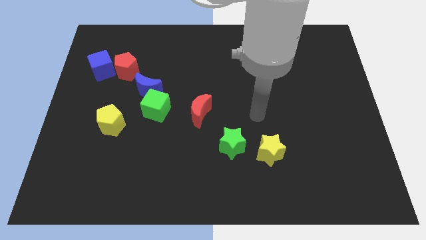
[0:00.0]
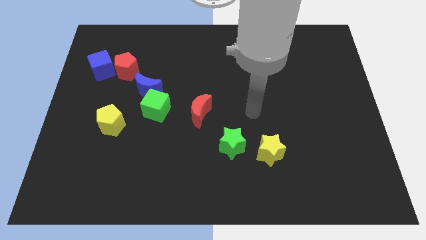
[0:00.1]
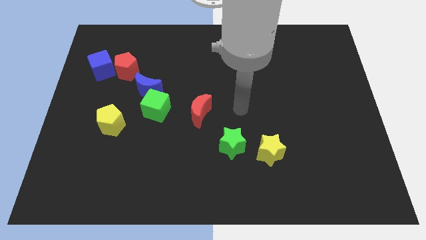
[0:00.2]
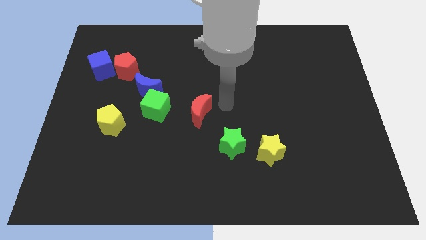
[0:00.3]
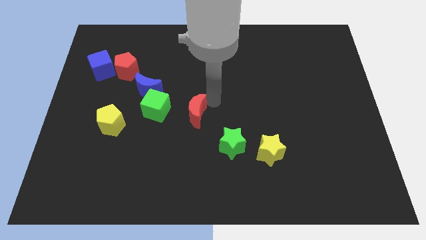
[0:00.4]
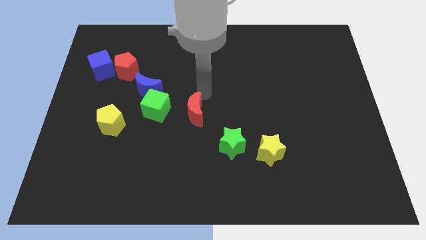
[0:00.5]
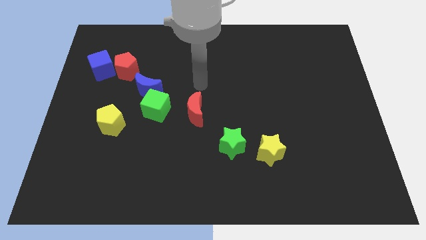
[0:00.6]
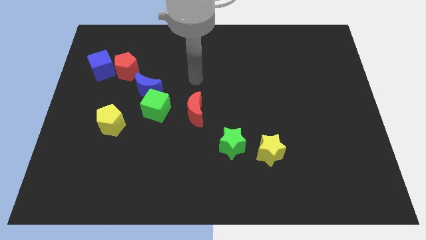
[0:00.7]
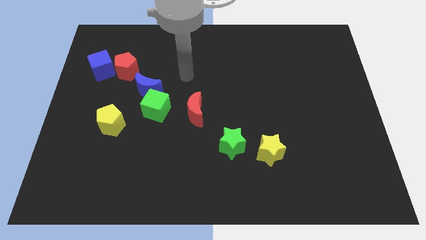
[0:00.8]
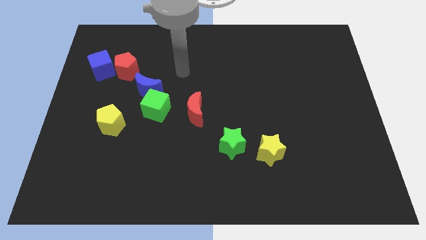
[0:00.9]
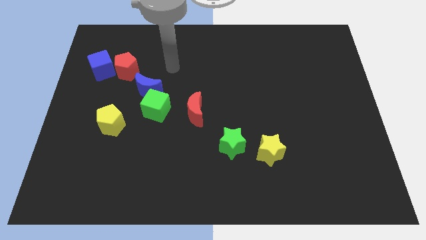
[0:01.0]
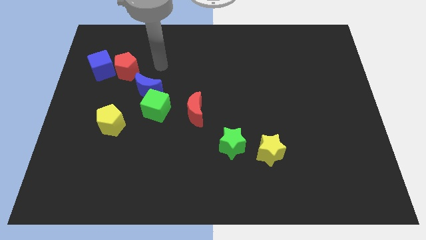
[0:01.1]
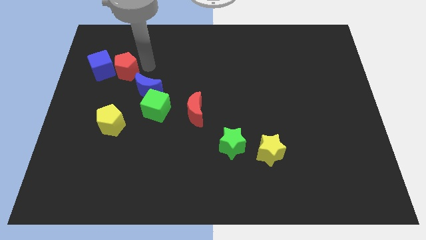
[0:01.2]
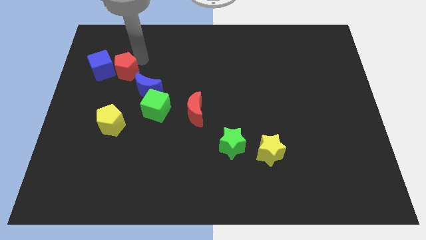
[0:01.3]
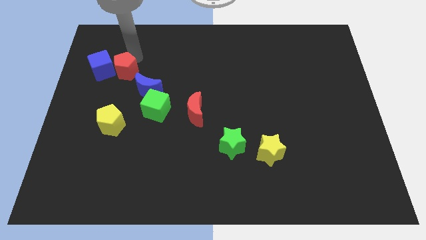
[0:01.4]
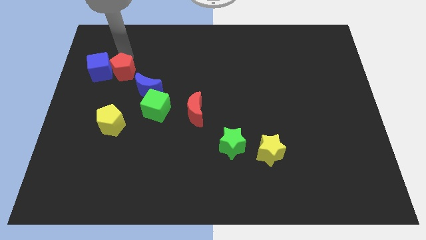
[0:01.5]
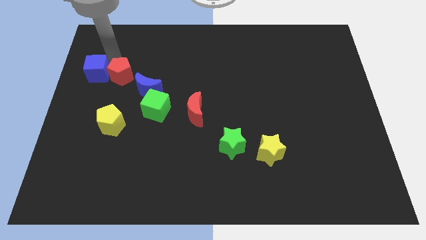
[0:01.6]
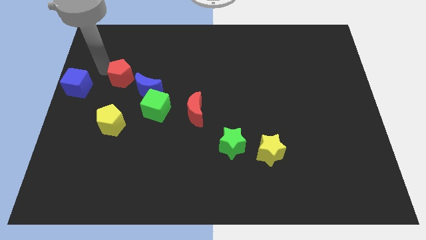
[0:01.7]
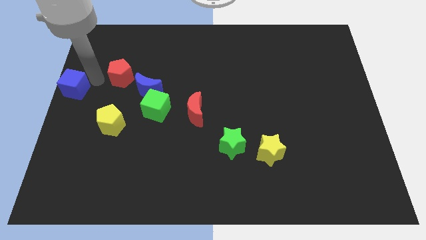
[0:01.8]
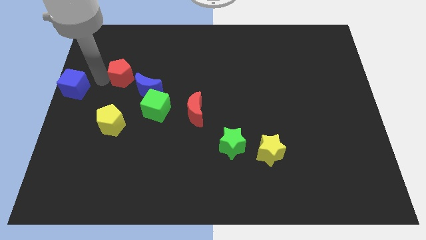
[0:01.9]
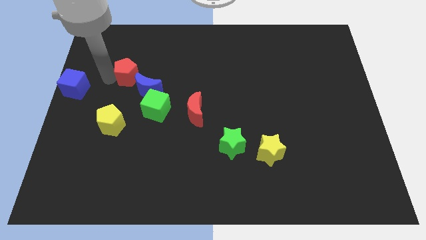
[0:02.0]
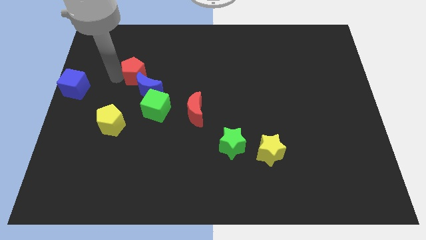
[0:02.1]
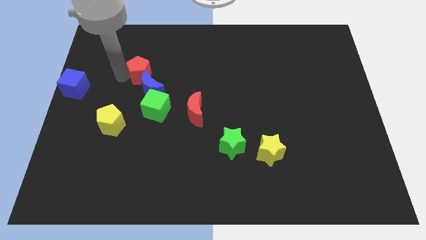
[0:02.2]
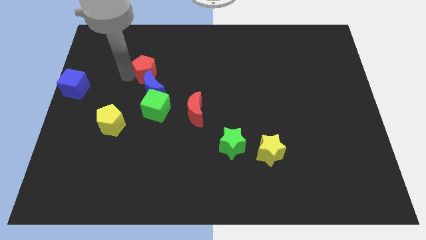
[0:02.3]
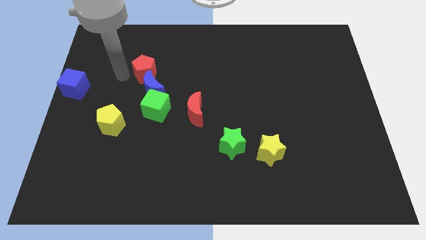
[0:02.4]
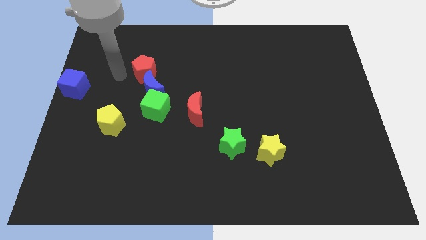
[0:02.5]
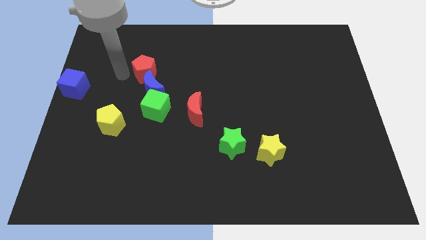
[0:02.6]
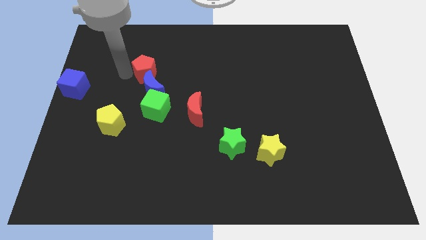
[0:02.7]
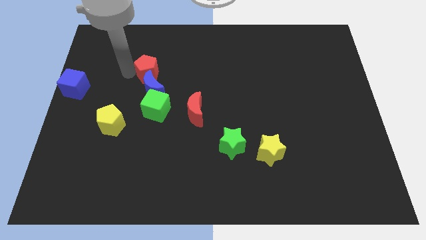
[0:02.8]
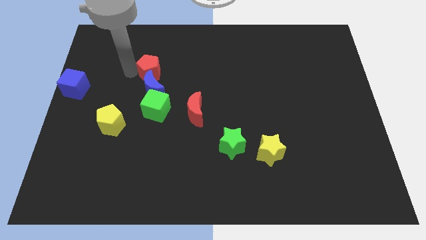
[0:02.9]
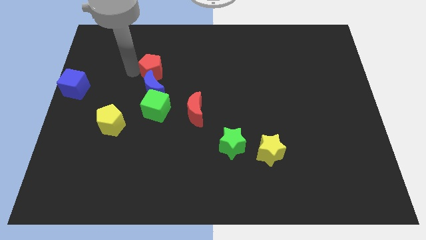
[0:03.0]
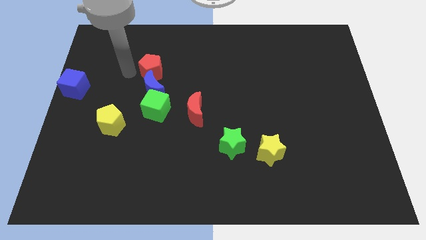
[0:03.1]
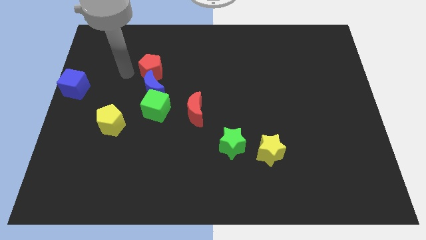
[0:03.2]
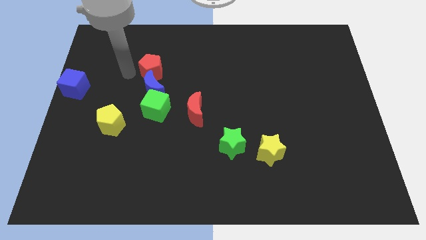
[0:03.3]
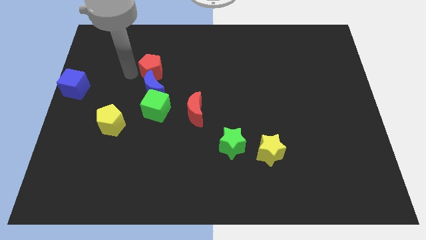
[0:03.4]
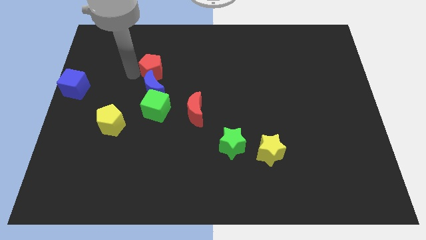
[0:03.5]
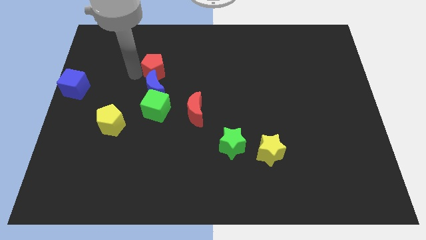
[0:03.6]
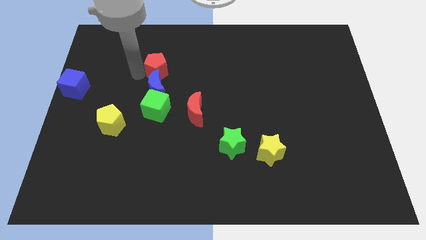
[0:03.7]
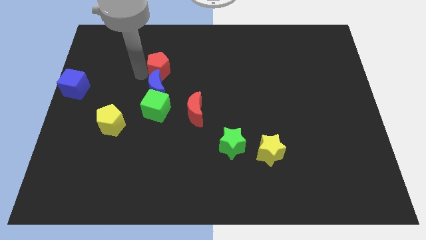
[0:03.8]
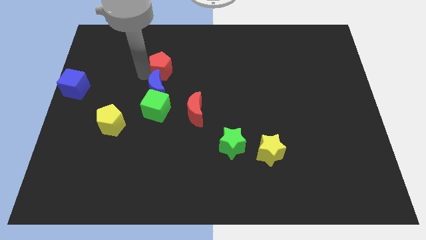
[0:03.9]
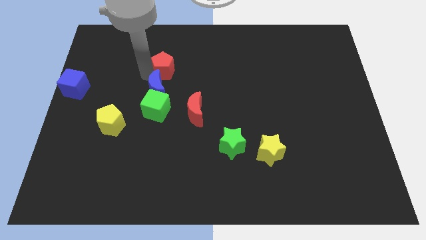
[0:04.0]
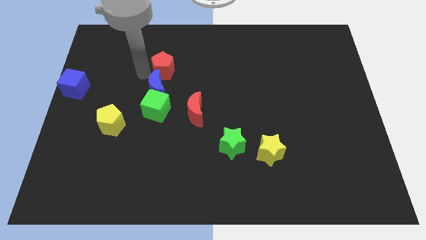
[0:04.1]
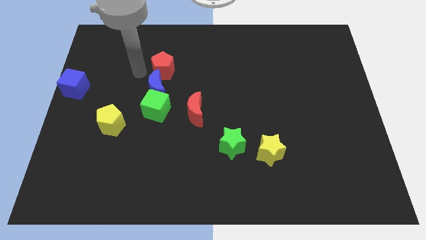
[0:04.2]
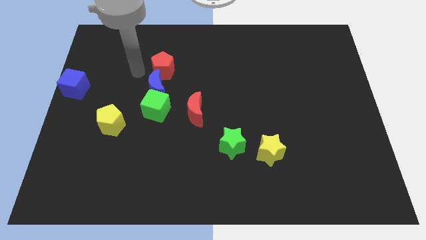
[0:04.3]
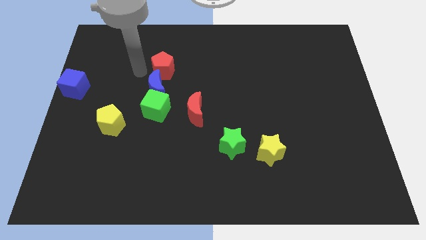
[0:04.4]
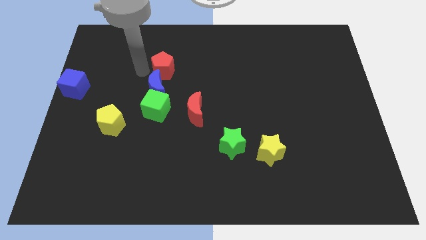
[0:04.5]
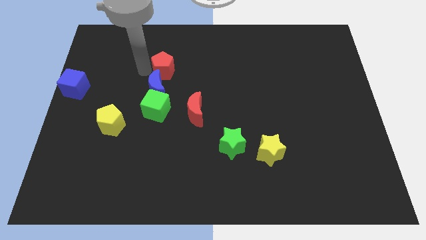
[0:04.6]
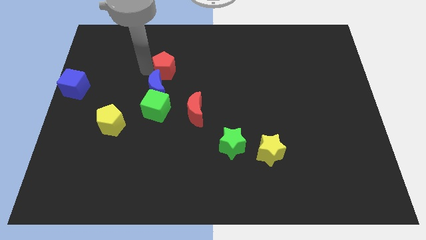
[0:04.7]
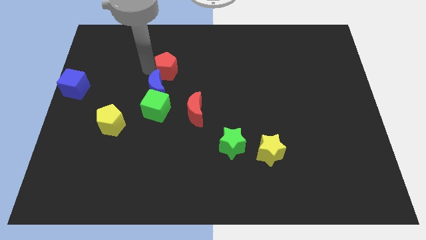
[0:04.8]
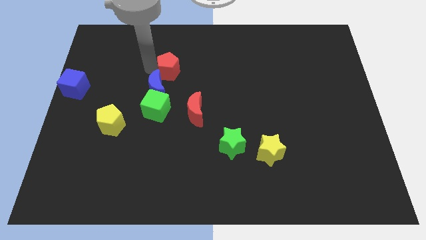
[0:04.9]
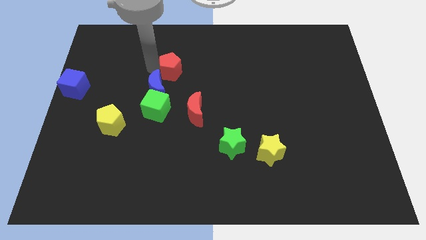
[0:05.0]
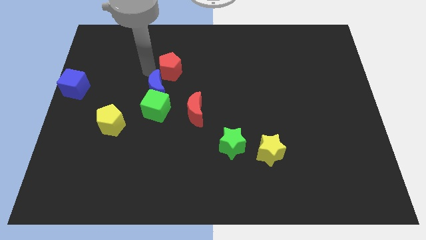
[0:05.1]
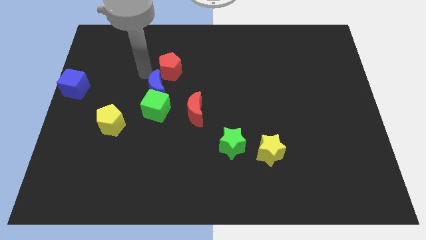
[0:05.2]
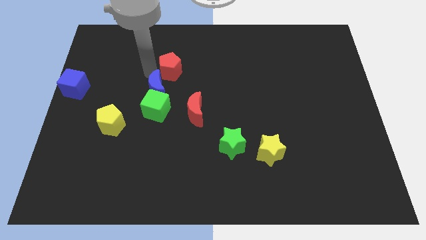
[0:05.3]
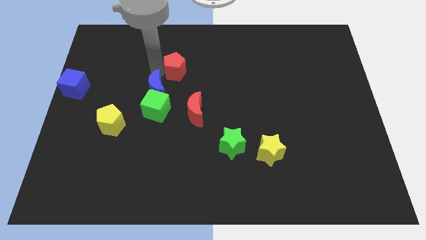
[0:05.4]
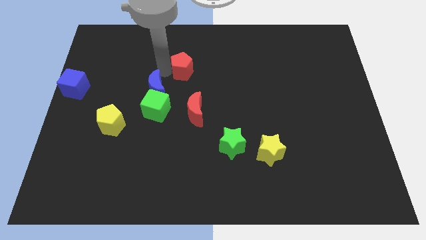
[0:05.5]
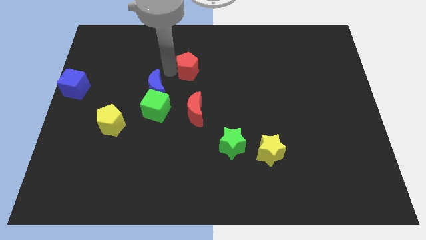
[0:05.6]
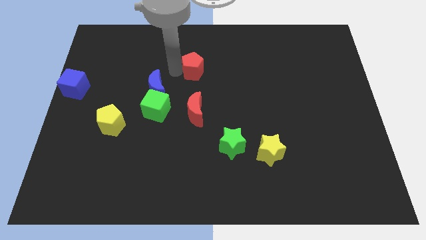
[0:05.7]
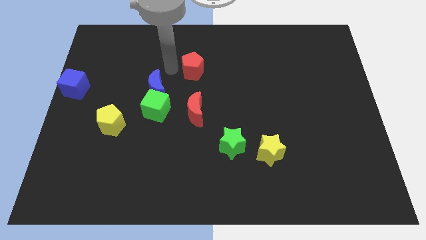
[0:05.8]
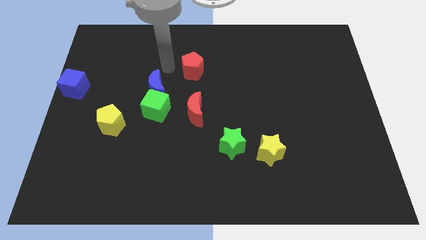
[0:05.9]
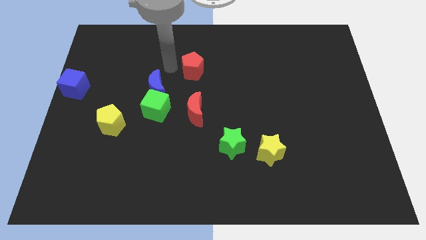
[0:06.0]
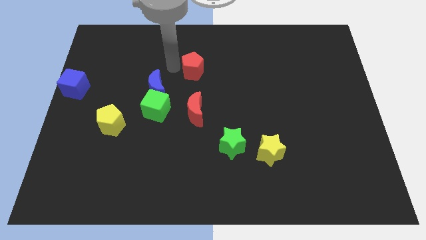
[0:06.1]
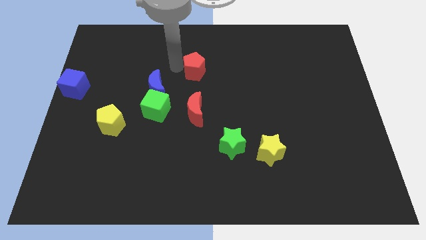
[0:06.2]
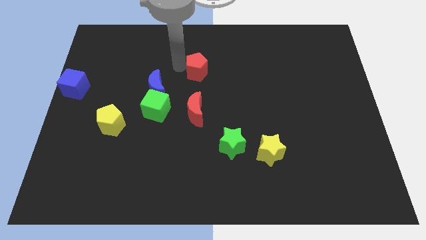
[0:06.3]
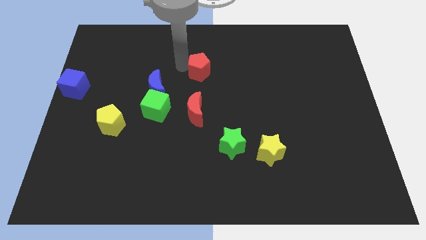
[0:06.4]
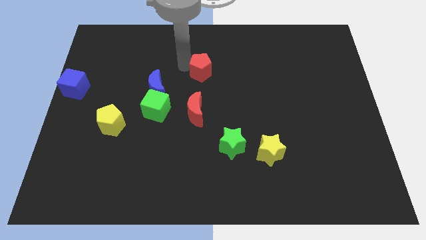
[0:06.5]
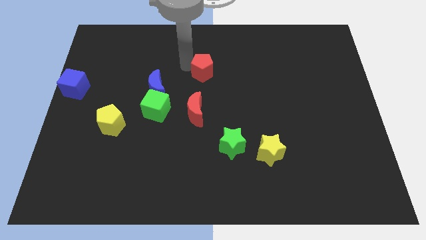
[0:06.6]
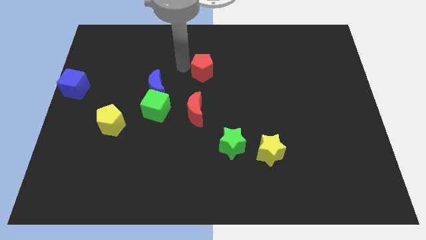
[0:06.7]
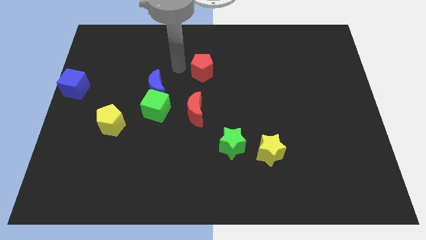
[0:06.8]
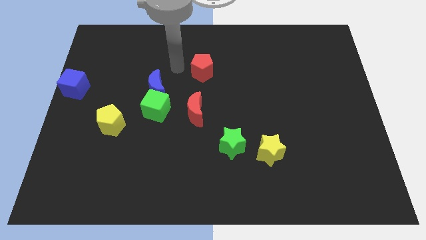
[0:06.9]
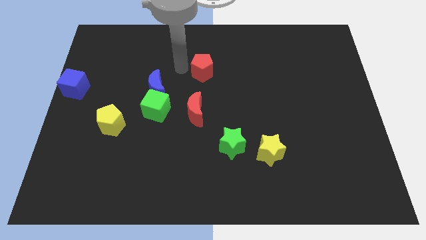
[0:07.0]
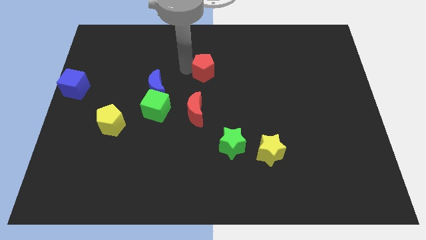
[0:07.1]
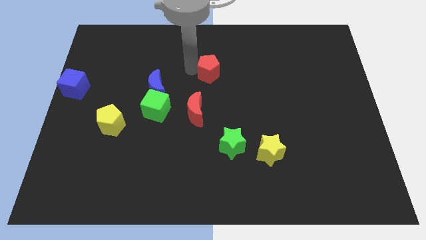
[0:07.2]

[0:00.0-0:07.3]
push the red pentagon to the right

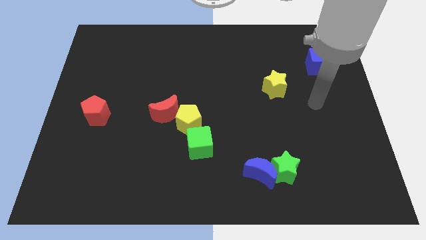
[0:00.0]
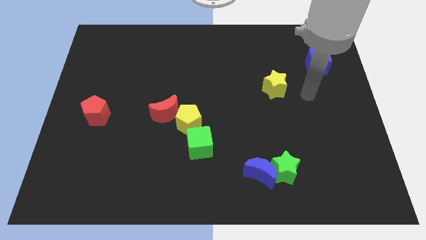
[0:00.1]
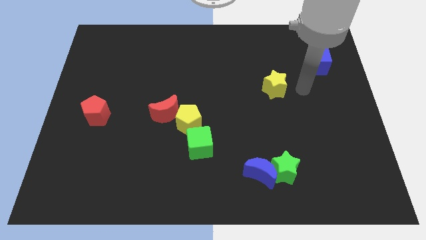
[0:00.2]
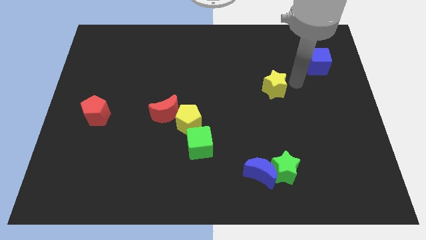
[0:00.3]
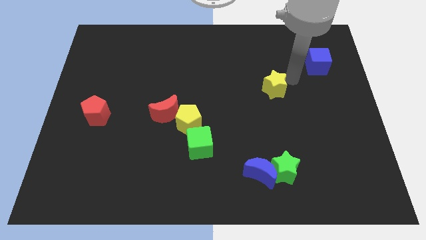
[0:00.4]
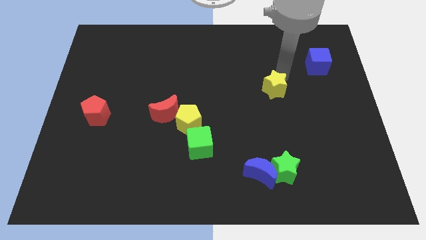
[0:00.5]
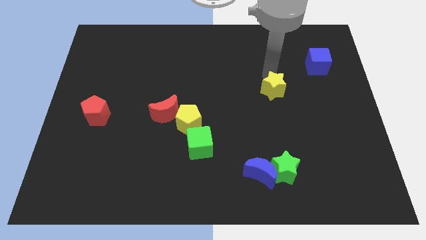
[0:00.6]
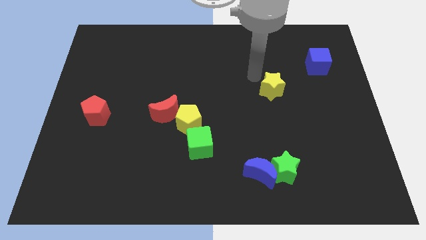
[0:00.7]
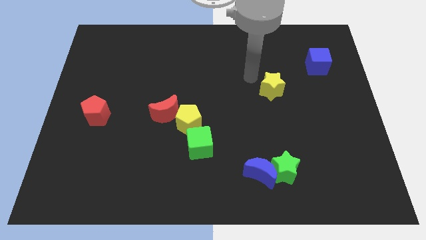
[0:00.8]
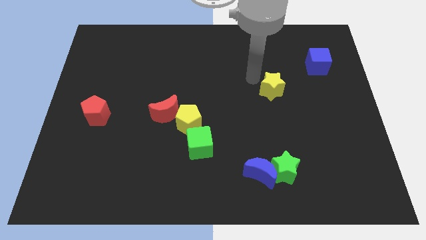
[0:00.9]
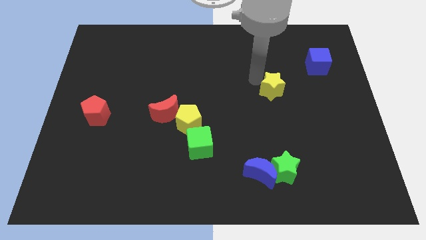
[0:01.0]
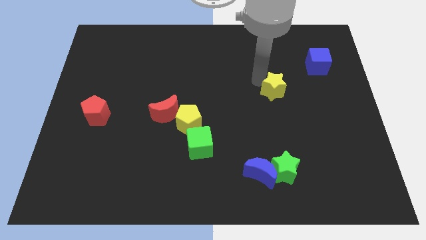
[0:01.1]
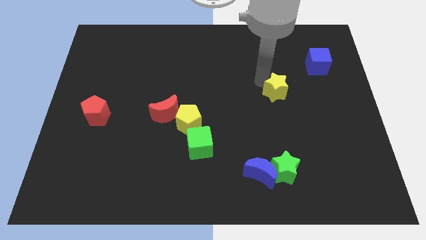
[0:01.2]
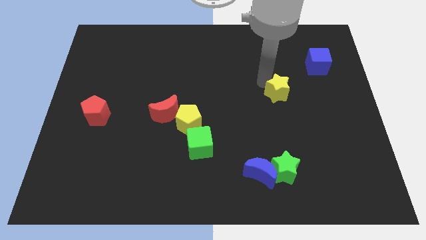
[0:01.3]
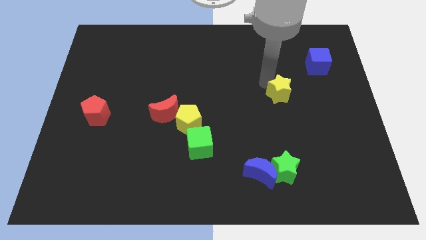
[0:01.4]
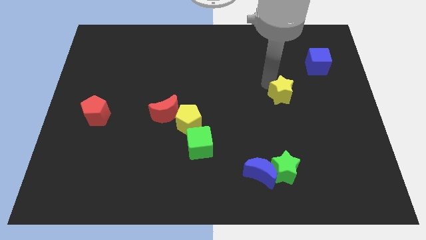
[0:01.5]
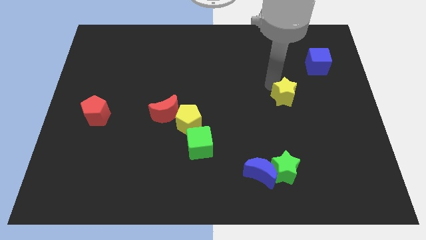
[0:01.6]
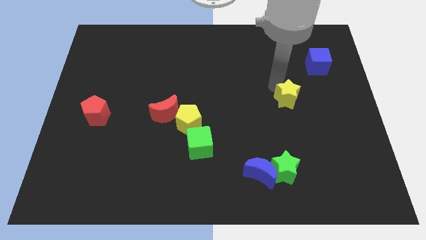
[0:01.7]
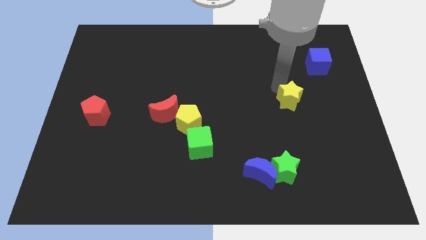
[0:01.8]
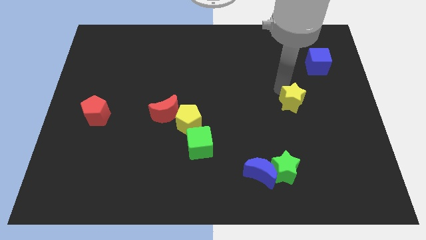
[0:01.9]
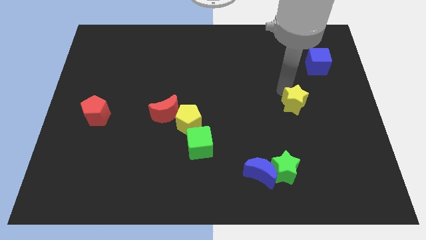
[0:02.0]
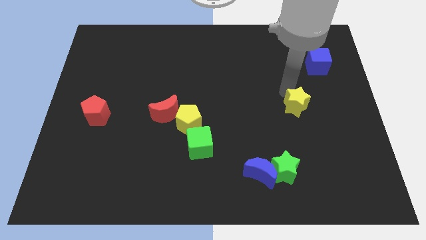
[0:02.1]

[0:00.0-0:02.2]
push the yellow star a little down and then right
